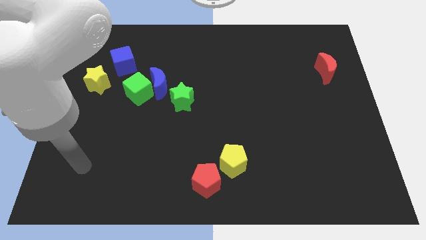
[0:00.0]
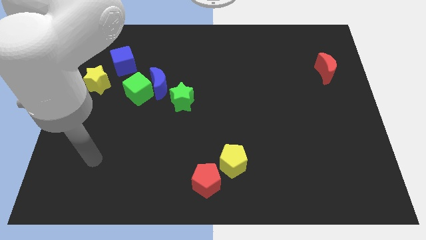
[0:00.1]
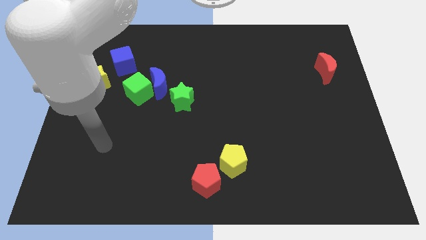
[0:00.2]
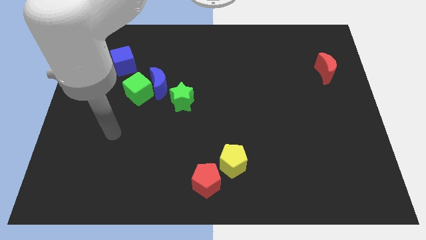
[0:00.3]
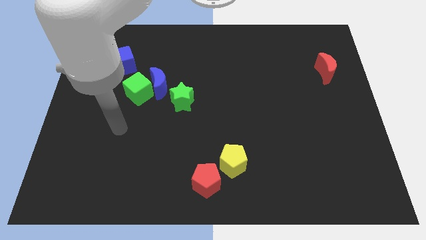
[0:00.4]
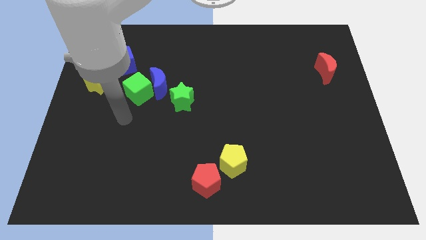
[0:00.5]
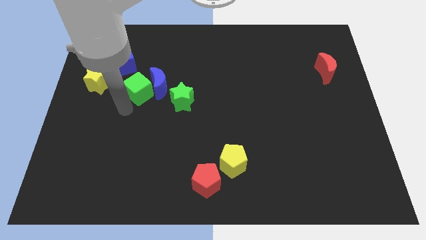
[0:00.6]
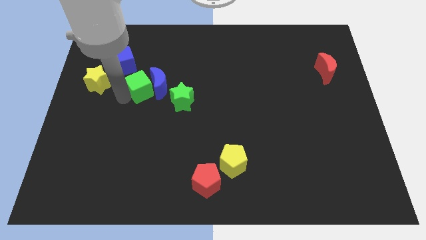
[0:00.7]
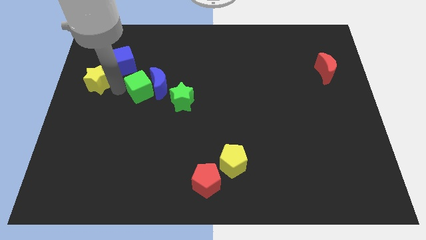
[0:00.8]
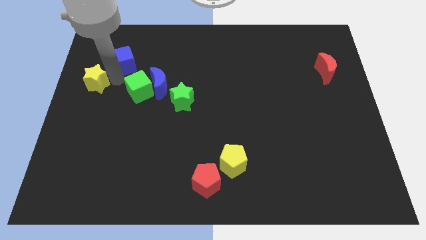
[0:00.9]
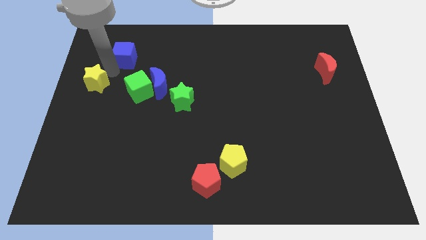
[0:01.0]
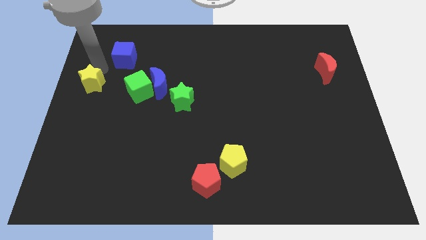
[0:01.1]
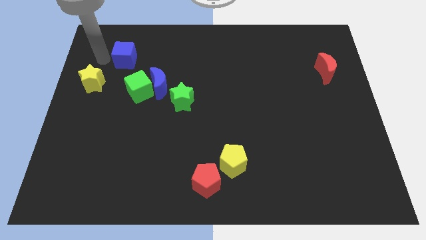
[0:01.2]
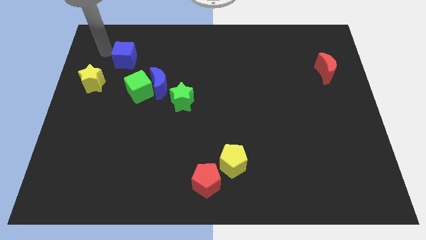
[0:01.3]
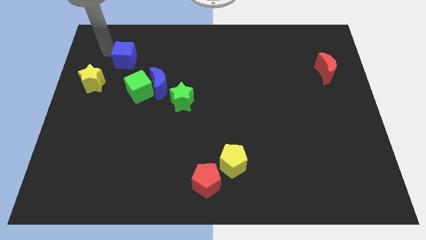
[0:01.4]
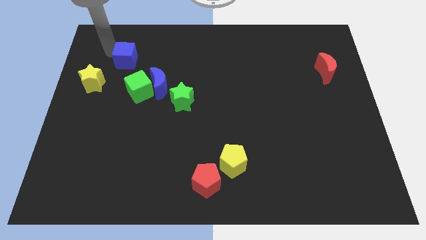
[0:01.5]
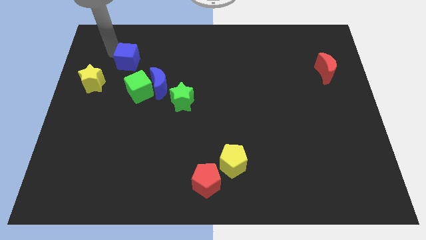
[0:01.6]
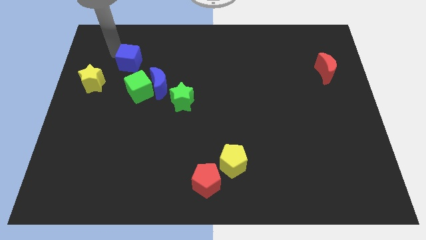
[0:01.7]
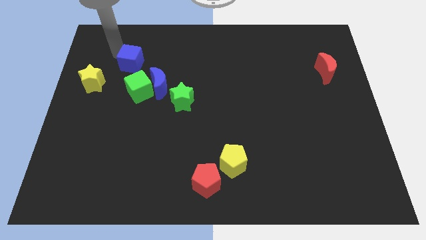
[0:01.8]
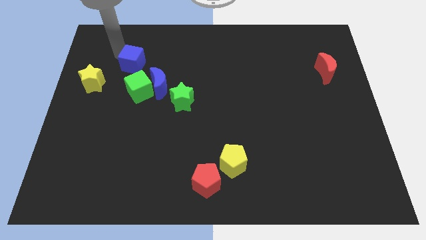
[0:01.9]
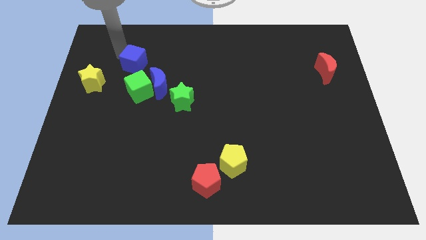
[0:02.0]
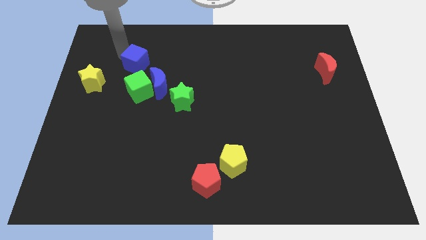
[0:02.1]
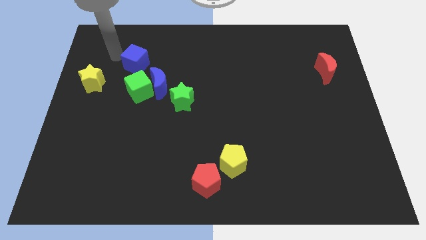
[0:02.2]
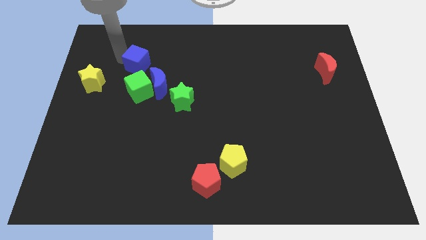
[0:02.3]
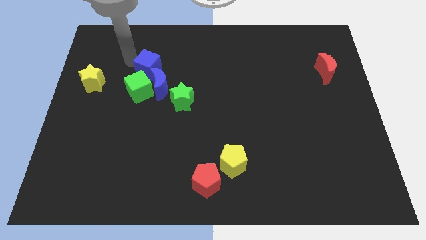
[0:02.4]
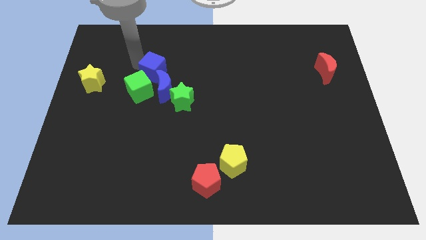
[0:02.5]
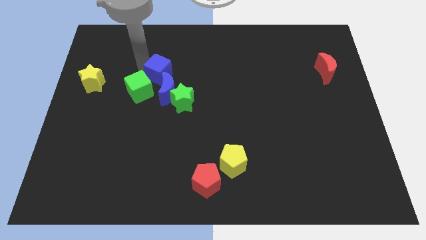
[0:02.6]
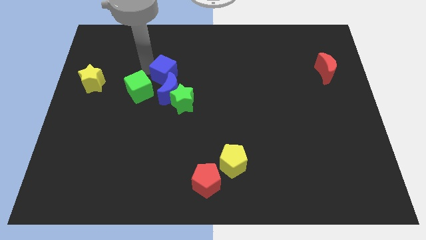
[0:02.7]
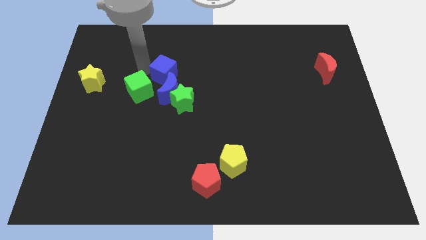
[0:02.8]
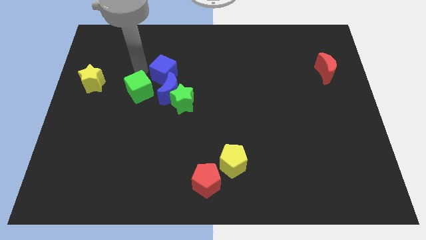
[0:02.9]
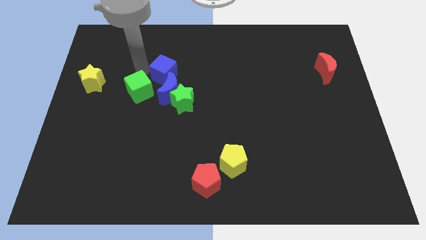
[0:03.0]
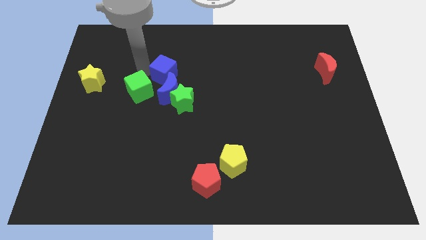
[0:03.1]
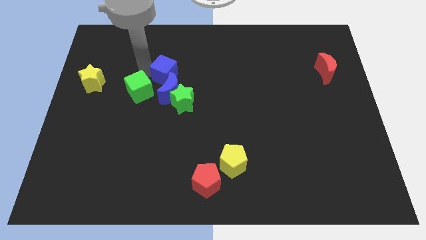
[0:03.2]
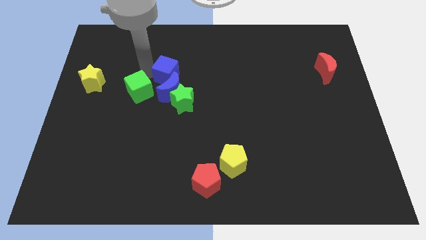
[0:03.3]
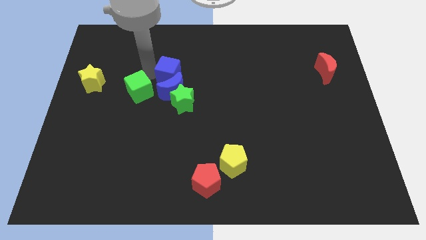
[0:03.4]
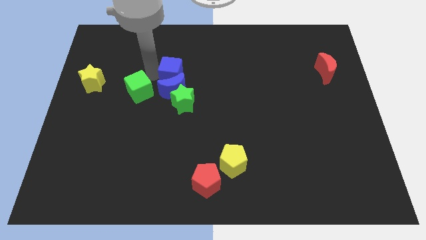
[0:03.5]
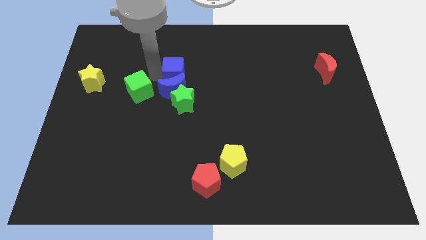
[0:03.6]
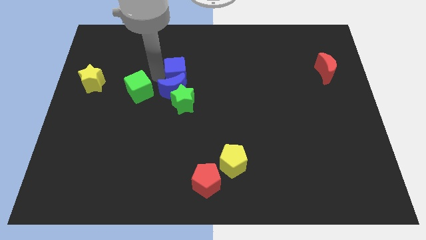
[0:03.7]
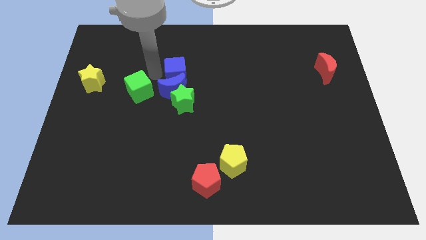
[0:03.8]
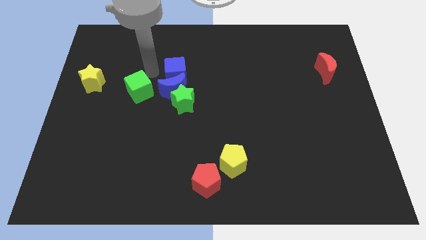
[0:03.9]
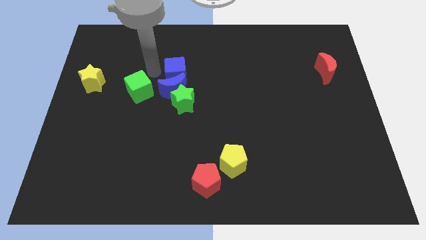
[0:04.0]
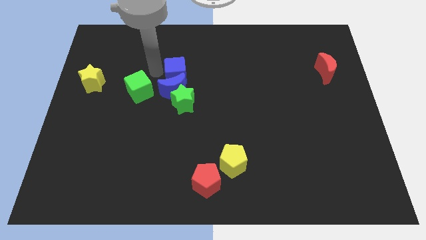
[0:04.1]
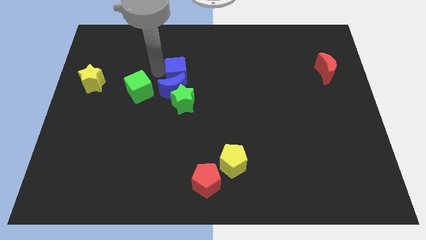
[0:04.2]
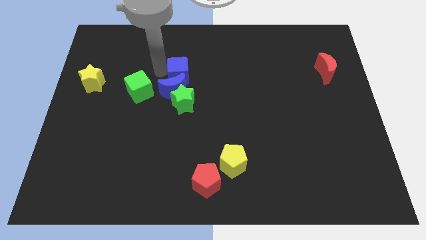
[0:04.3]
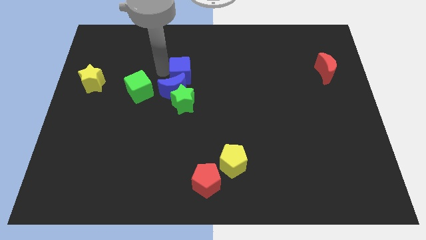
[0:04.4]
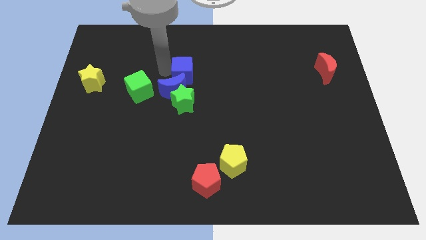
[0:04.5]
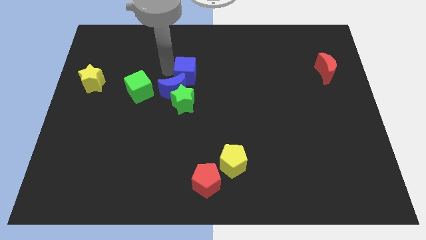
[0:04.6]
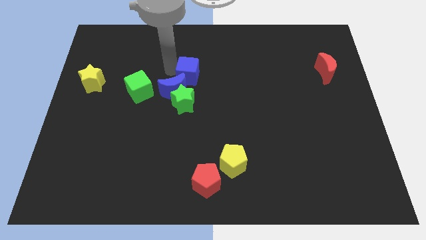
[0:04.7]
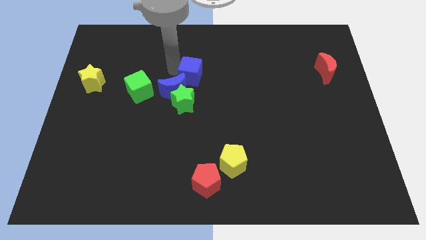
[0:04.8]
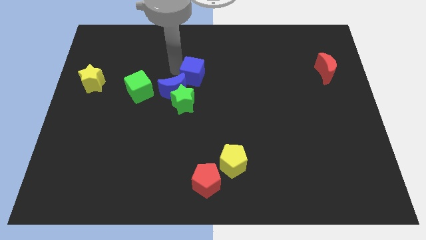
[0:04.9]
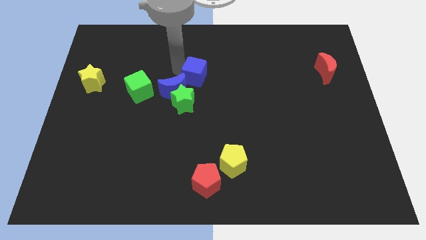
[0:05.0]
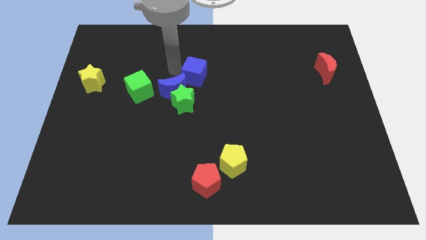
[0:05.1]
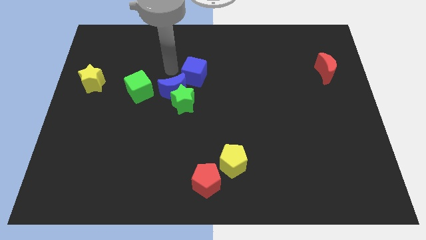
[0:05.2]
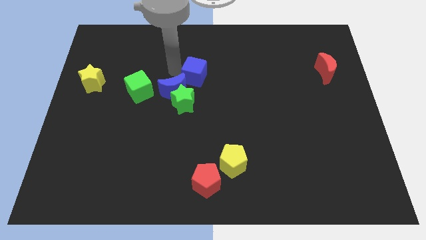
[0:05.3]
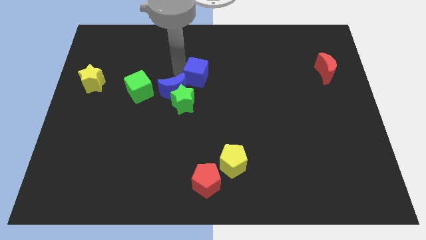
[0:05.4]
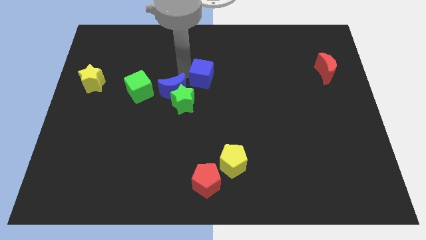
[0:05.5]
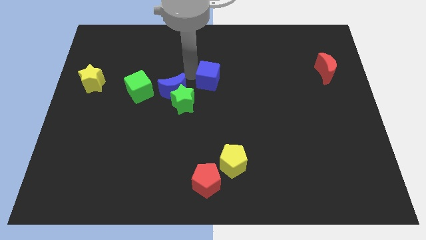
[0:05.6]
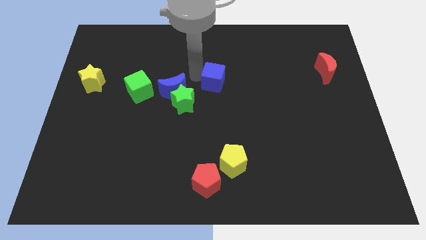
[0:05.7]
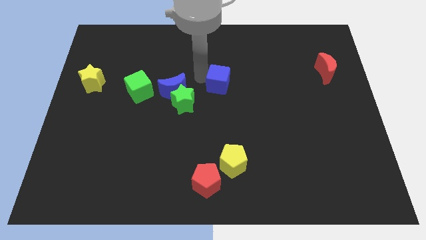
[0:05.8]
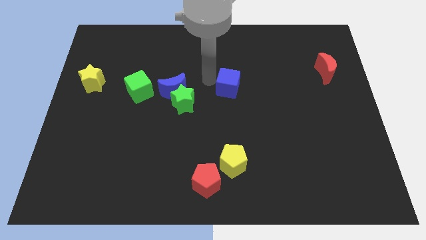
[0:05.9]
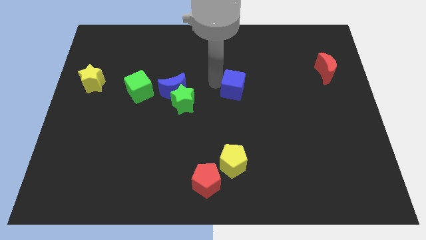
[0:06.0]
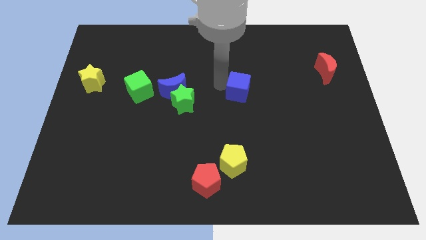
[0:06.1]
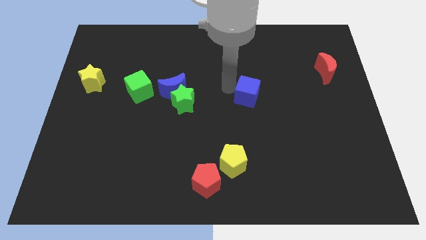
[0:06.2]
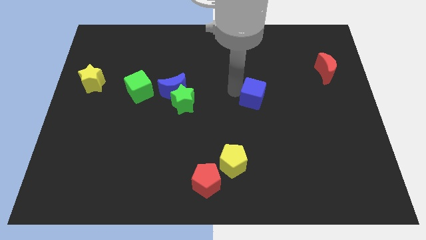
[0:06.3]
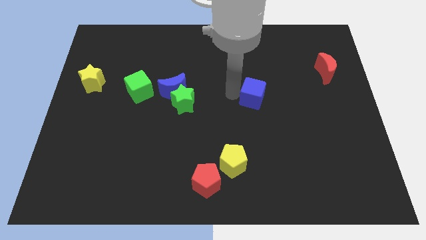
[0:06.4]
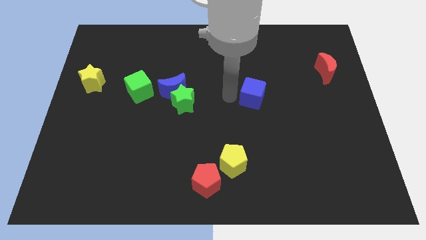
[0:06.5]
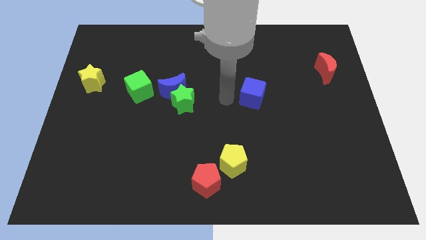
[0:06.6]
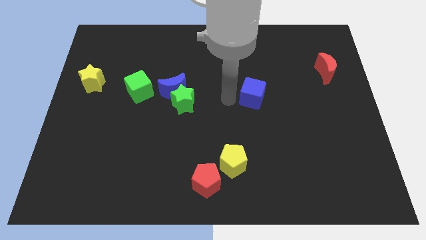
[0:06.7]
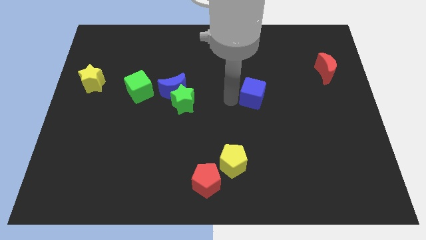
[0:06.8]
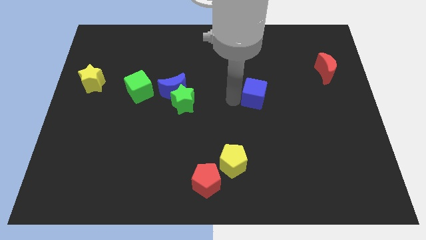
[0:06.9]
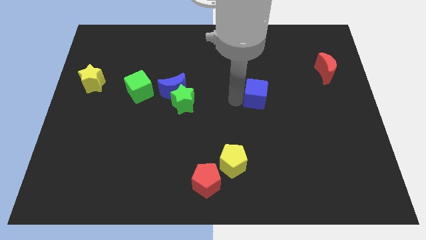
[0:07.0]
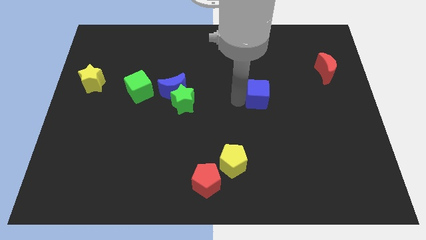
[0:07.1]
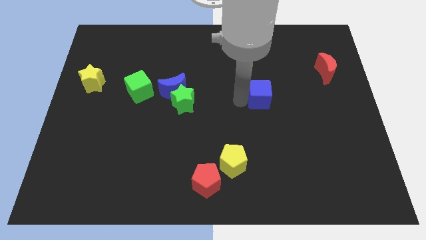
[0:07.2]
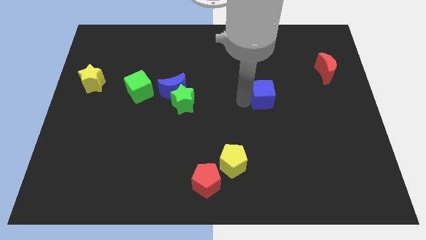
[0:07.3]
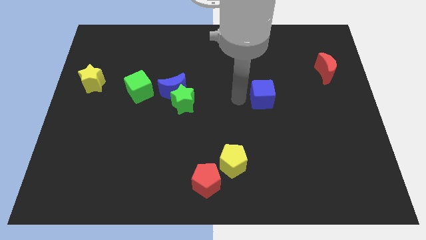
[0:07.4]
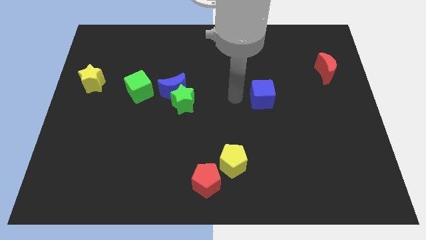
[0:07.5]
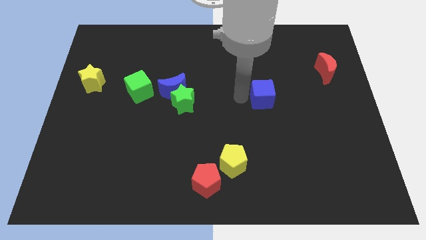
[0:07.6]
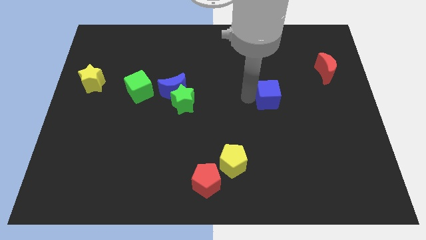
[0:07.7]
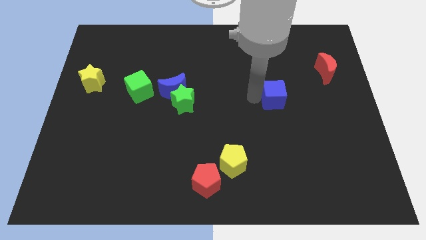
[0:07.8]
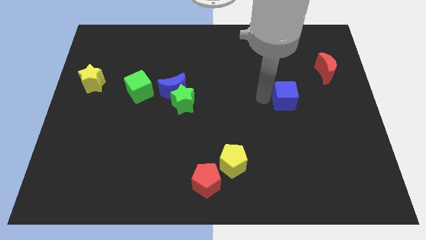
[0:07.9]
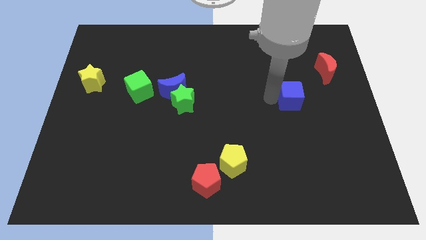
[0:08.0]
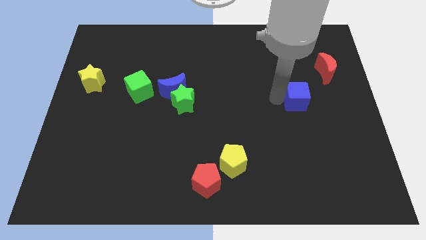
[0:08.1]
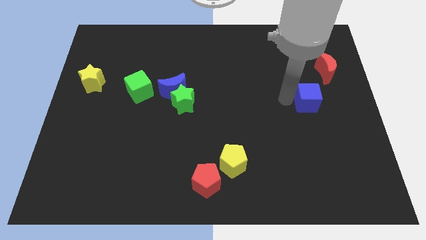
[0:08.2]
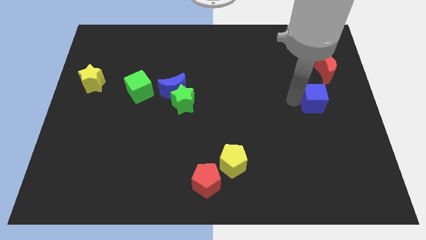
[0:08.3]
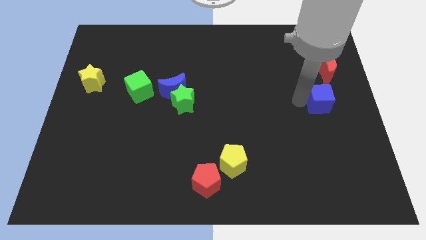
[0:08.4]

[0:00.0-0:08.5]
push the blue cube to the center right
